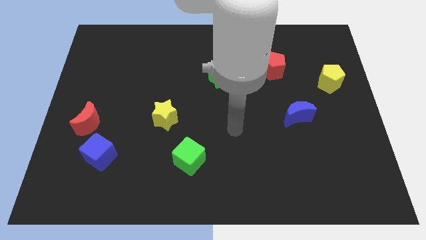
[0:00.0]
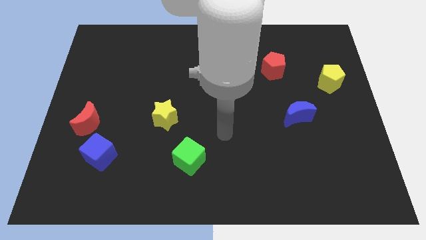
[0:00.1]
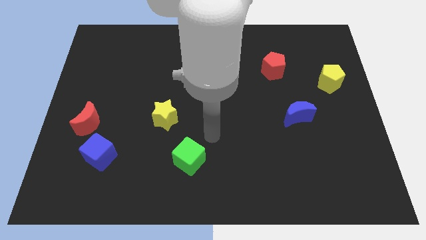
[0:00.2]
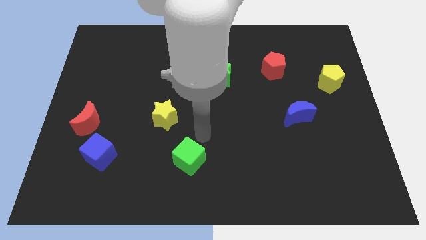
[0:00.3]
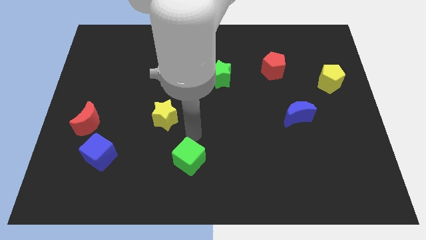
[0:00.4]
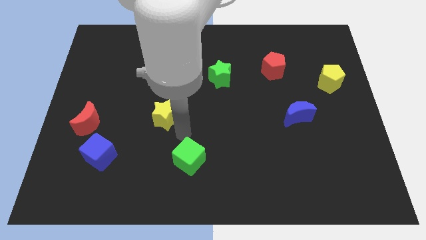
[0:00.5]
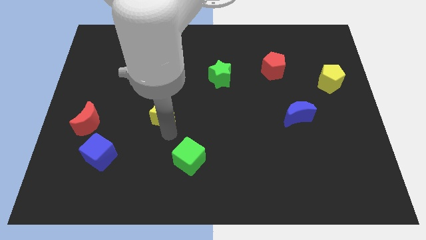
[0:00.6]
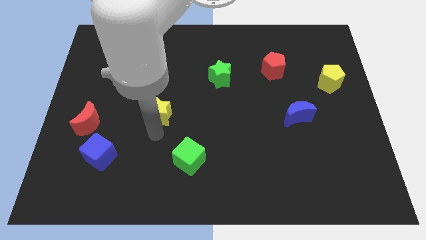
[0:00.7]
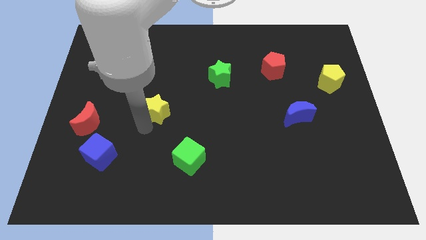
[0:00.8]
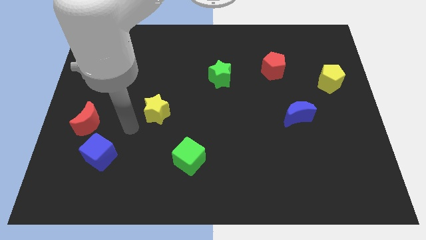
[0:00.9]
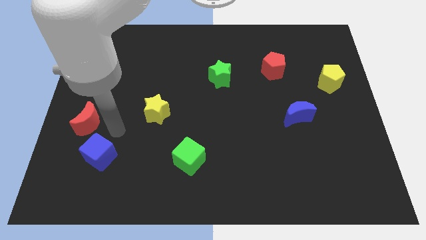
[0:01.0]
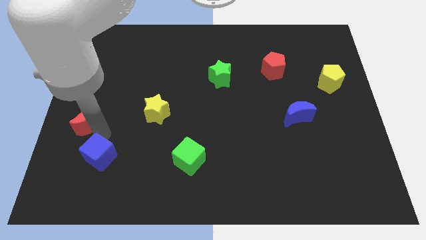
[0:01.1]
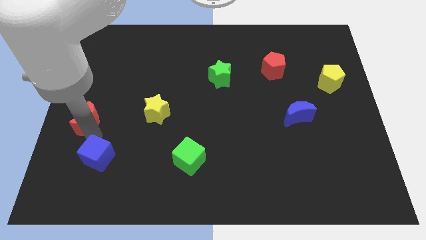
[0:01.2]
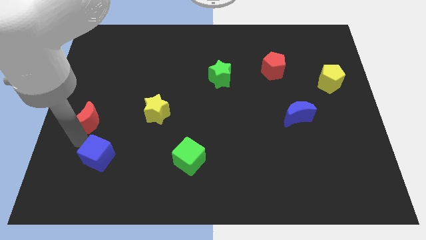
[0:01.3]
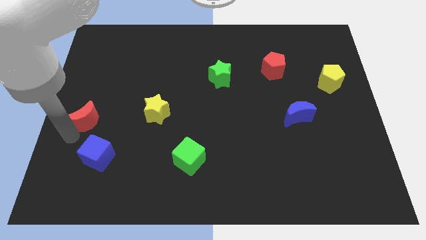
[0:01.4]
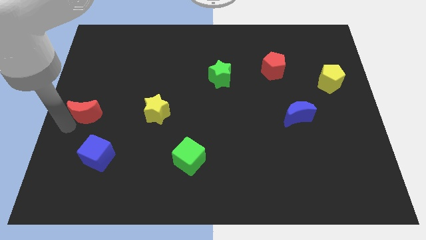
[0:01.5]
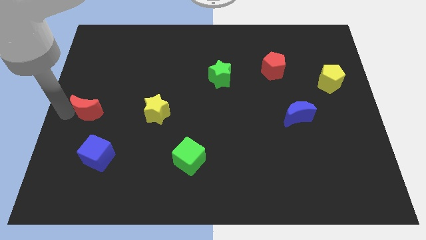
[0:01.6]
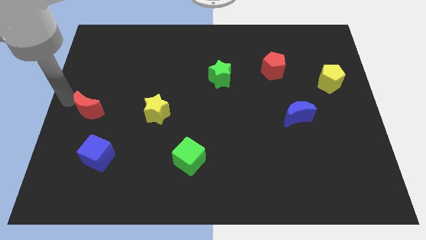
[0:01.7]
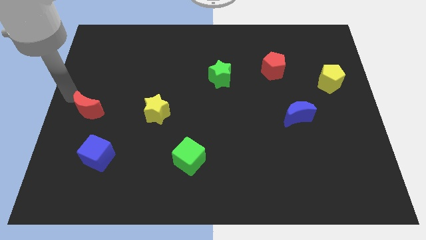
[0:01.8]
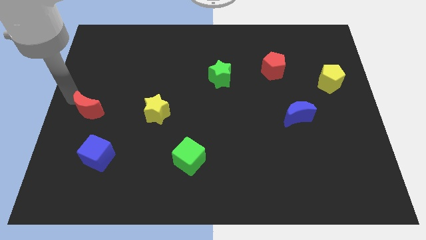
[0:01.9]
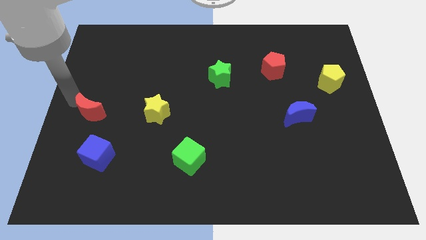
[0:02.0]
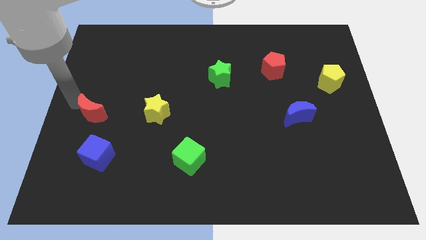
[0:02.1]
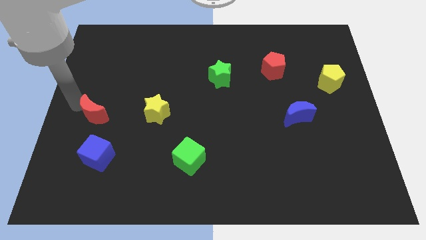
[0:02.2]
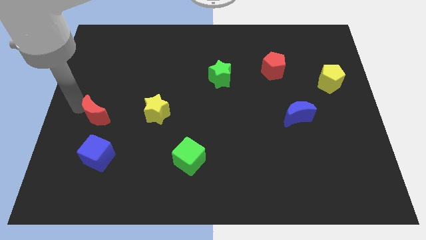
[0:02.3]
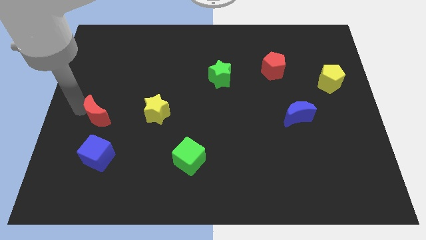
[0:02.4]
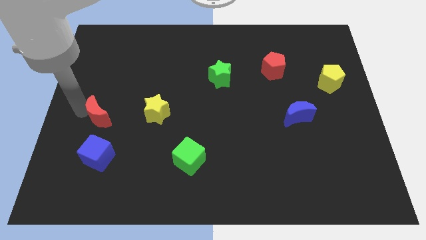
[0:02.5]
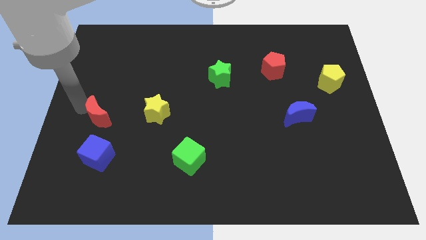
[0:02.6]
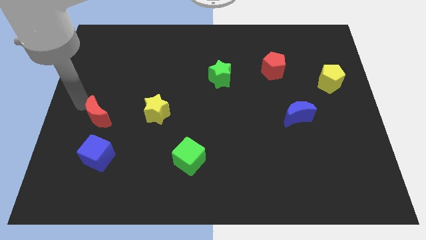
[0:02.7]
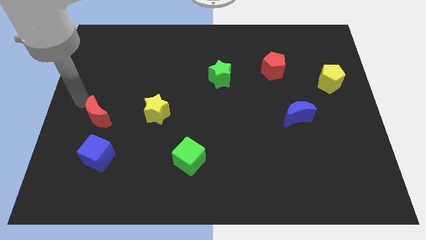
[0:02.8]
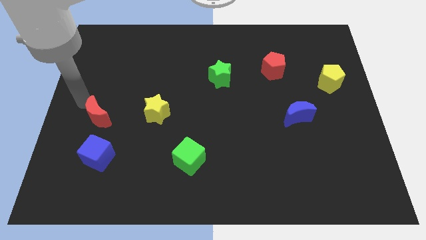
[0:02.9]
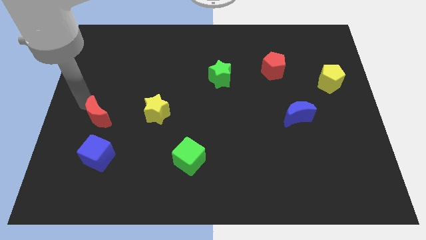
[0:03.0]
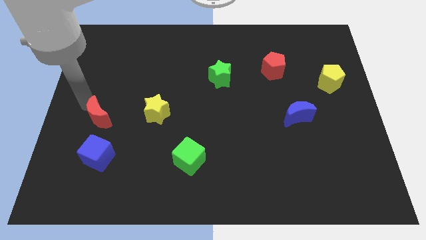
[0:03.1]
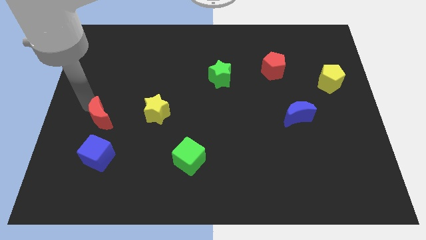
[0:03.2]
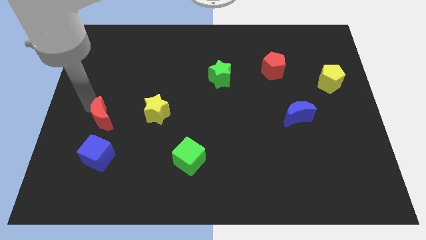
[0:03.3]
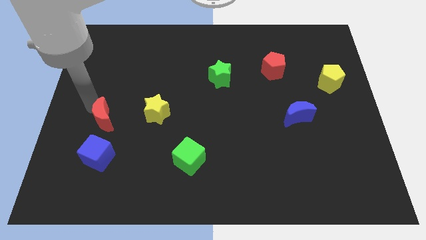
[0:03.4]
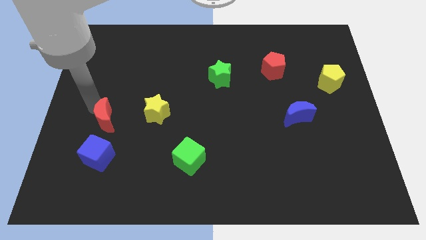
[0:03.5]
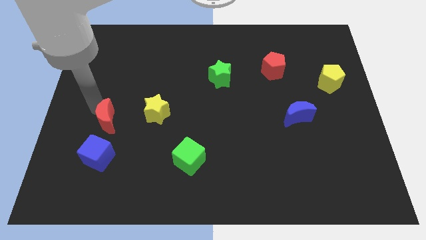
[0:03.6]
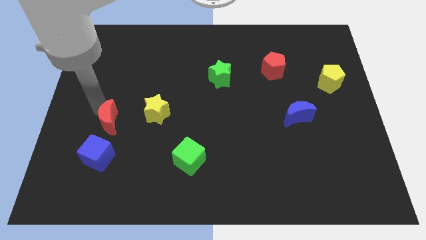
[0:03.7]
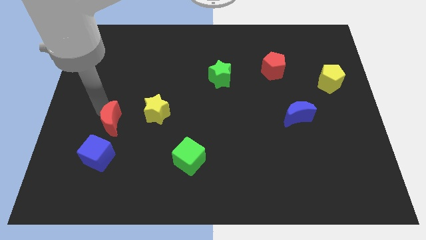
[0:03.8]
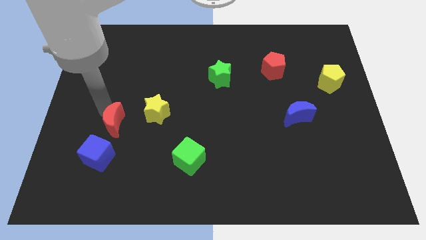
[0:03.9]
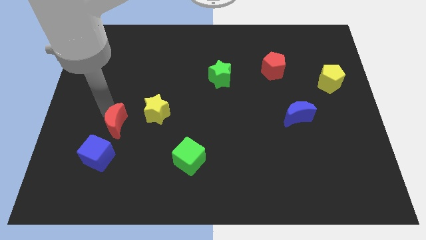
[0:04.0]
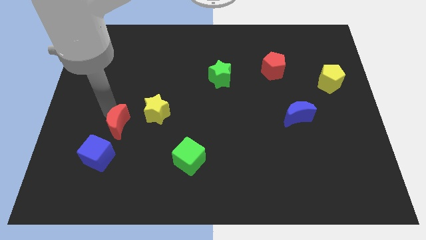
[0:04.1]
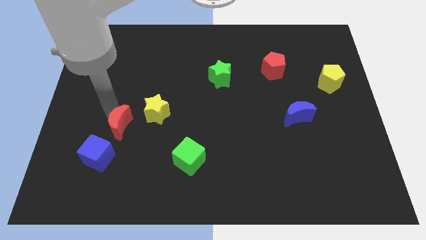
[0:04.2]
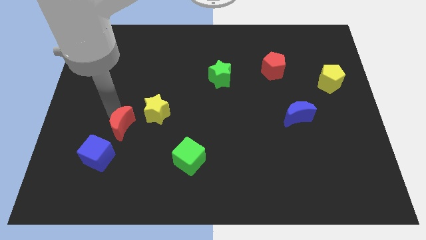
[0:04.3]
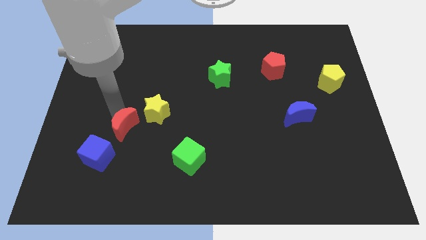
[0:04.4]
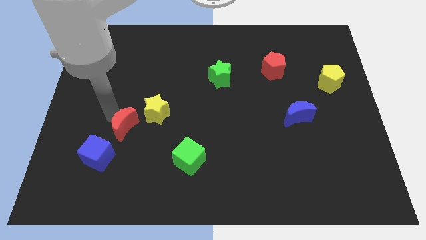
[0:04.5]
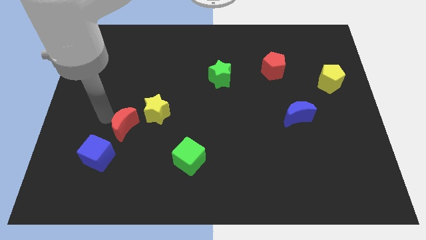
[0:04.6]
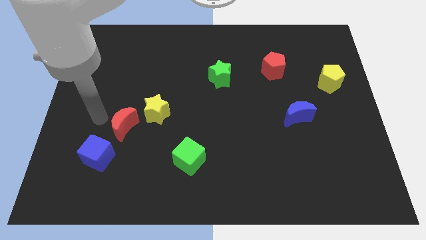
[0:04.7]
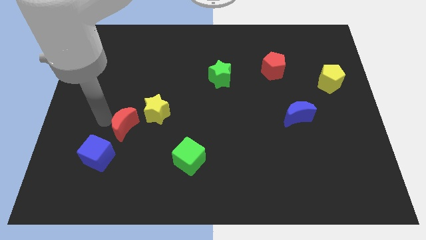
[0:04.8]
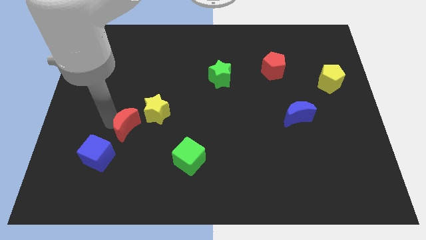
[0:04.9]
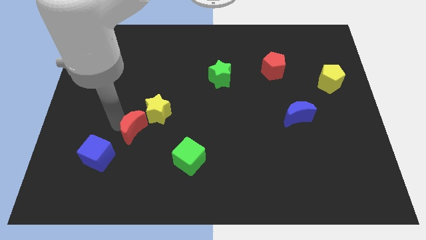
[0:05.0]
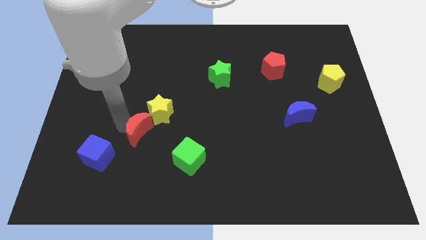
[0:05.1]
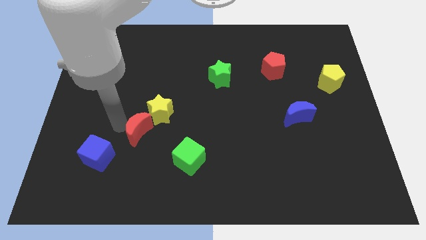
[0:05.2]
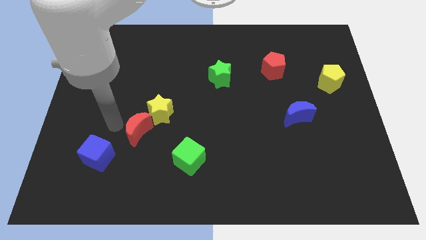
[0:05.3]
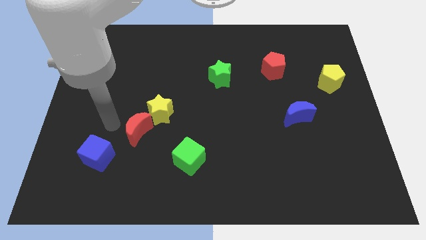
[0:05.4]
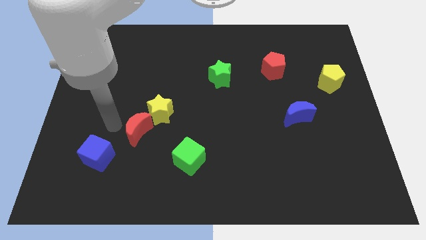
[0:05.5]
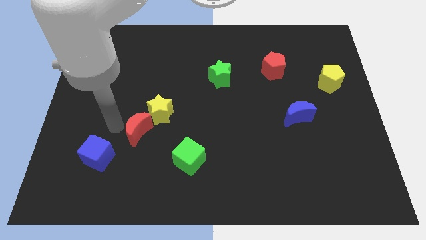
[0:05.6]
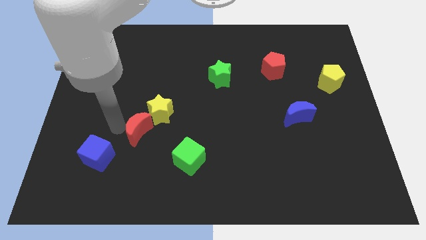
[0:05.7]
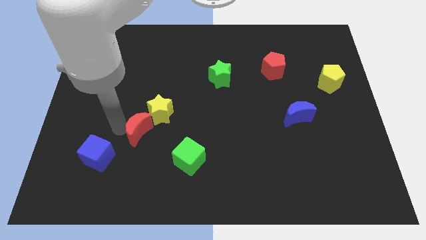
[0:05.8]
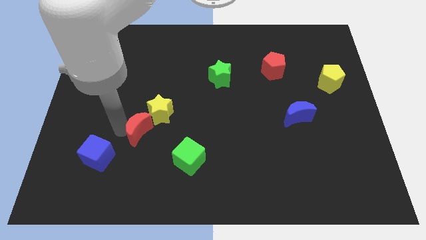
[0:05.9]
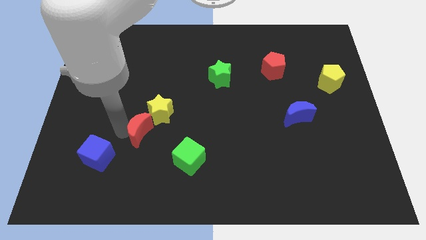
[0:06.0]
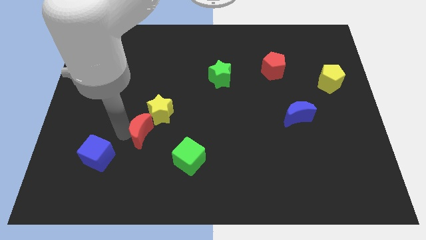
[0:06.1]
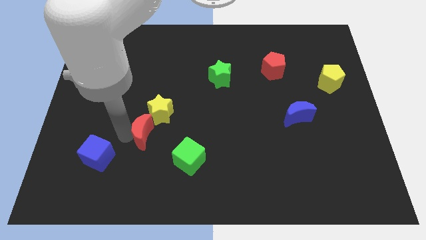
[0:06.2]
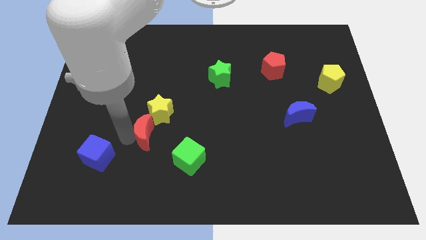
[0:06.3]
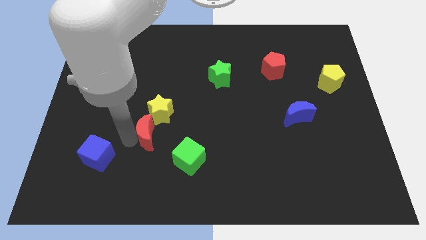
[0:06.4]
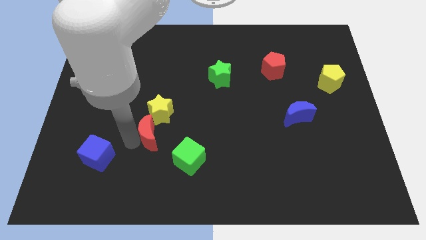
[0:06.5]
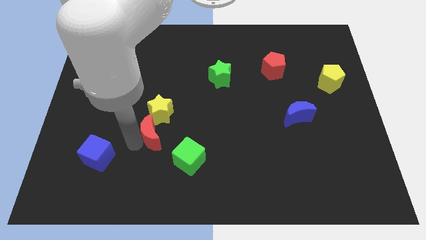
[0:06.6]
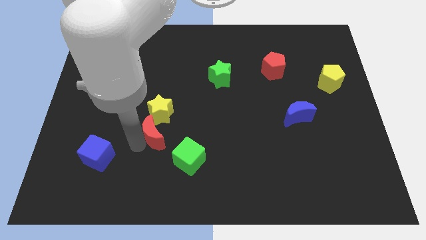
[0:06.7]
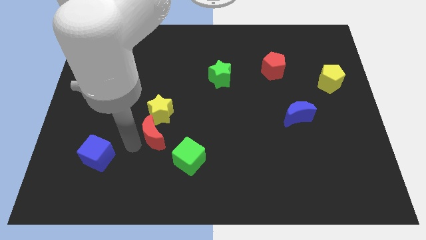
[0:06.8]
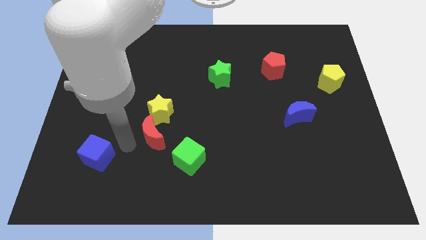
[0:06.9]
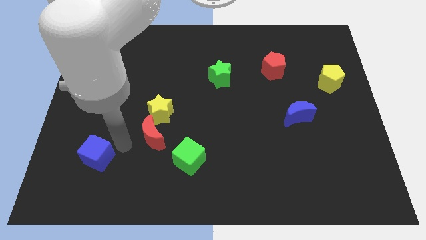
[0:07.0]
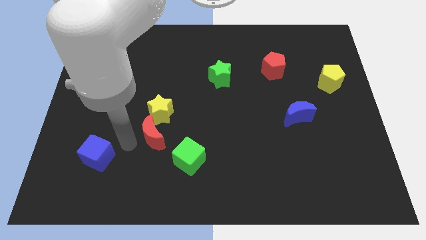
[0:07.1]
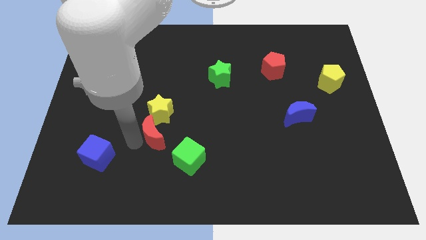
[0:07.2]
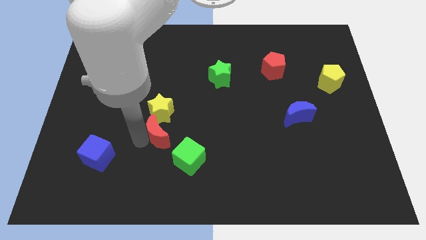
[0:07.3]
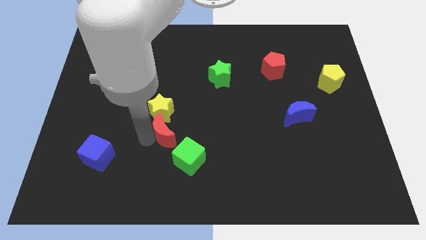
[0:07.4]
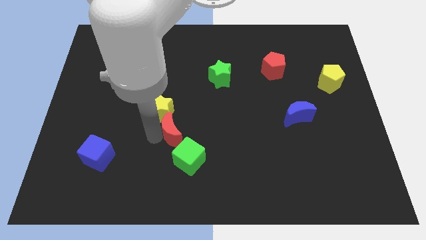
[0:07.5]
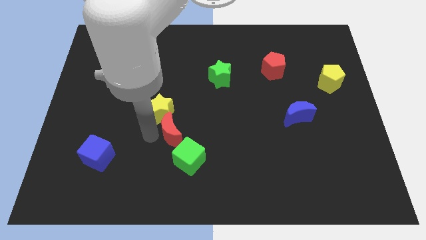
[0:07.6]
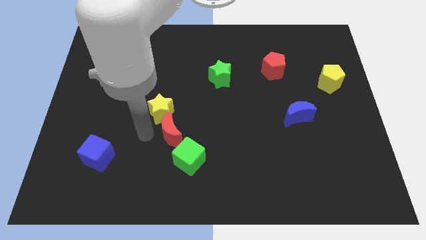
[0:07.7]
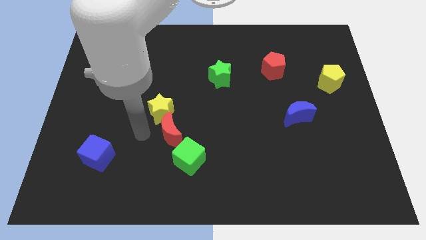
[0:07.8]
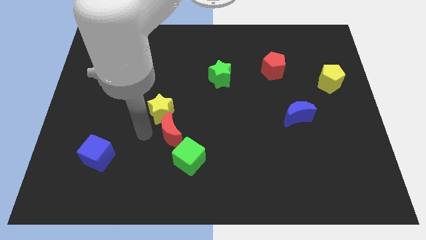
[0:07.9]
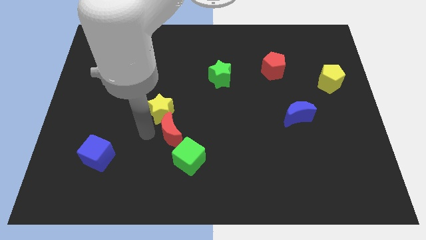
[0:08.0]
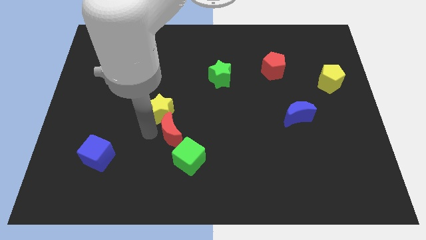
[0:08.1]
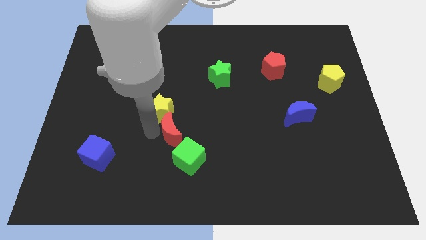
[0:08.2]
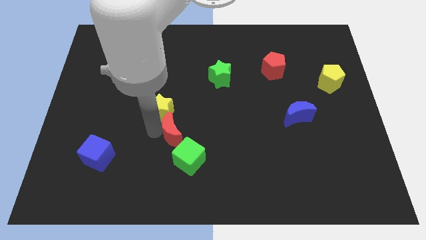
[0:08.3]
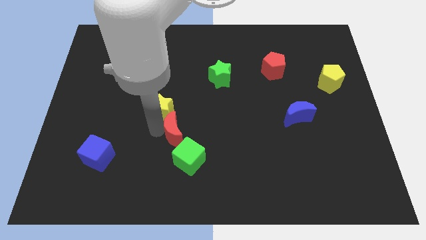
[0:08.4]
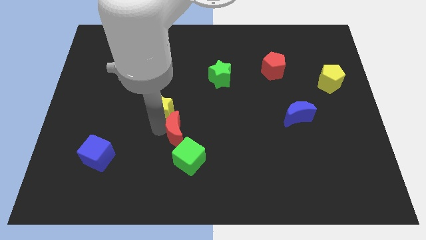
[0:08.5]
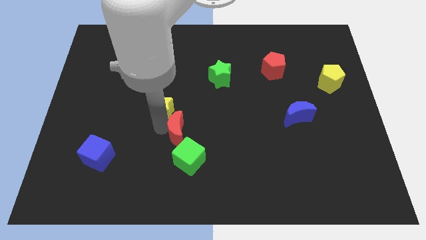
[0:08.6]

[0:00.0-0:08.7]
slide the red moon to the right
